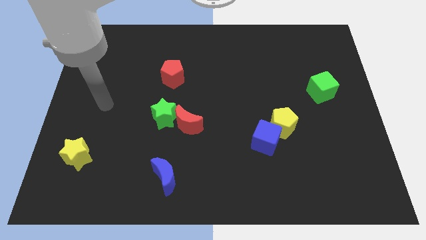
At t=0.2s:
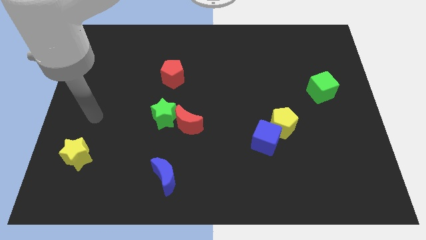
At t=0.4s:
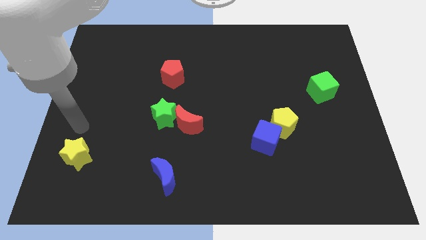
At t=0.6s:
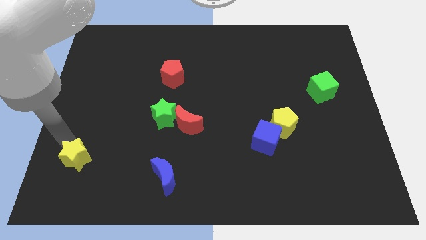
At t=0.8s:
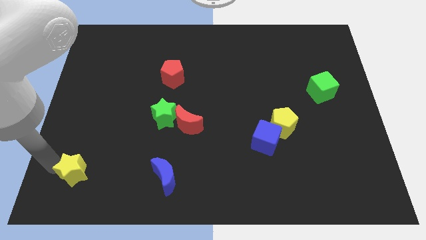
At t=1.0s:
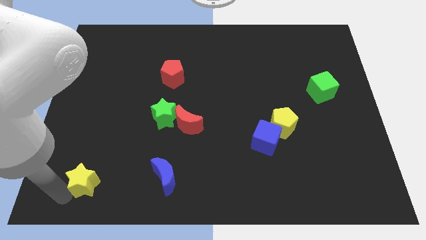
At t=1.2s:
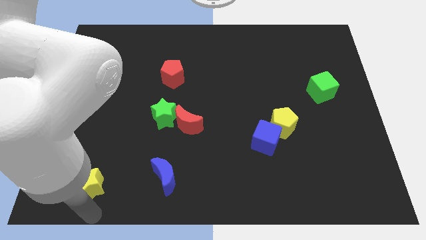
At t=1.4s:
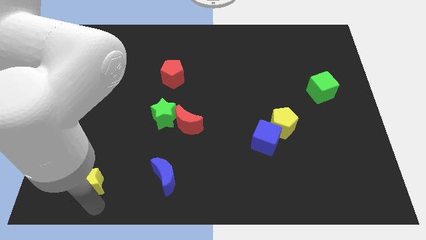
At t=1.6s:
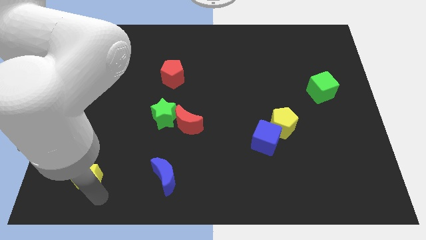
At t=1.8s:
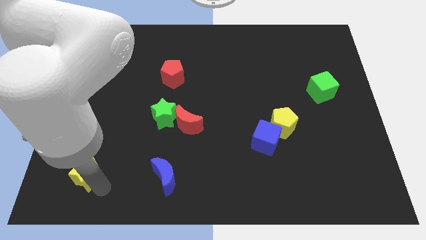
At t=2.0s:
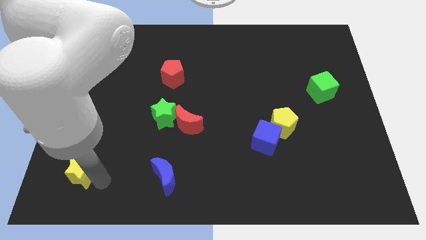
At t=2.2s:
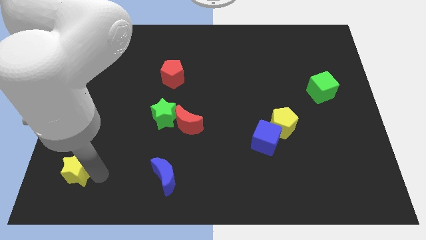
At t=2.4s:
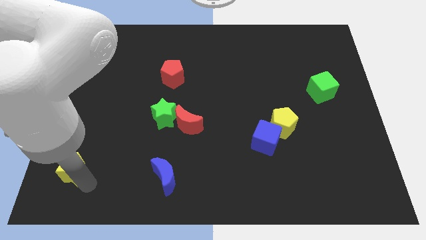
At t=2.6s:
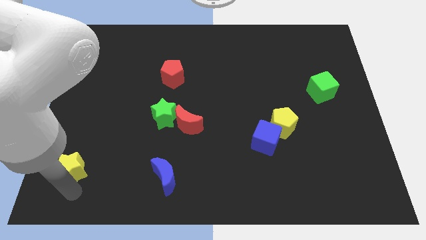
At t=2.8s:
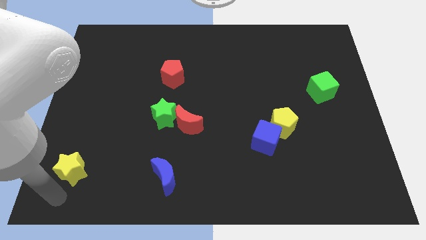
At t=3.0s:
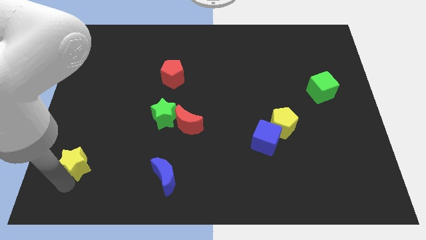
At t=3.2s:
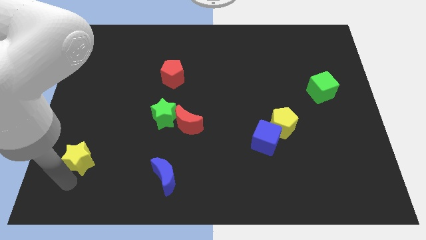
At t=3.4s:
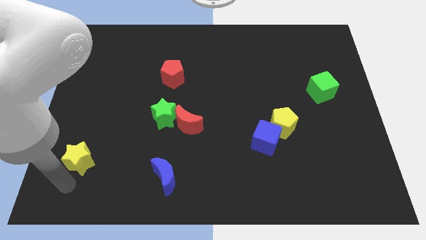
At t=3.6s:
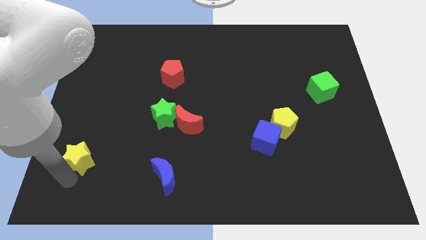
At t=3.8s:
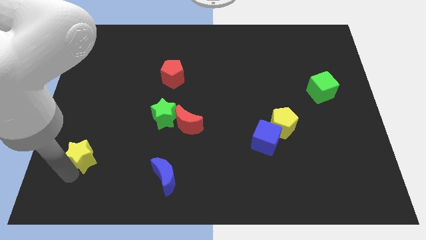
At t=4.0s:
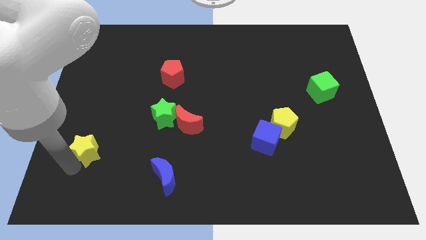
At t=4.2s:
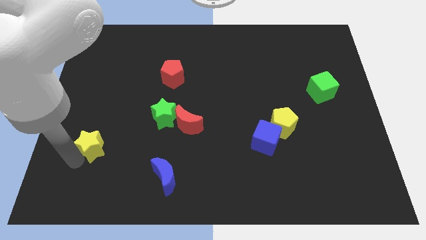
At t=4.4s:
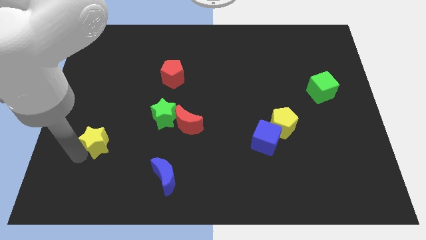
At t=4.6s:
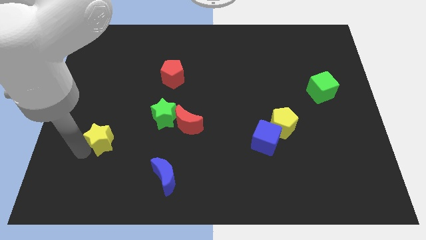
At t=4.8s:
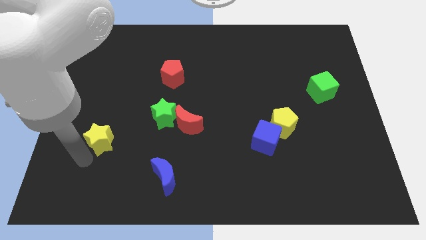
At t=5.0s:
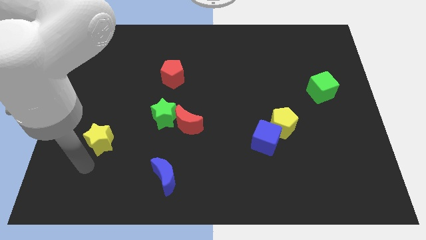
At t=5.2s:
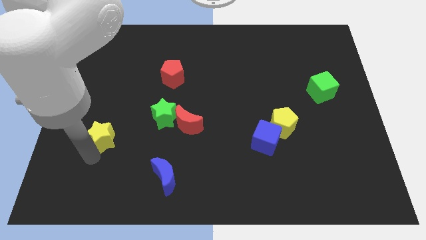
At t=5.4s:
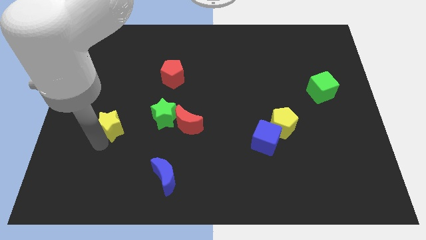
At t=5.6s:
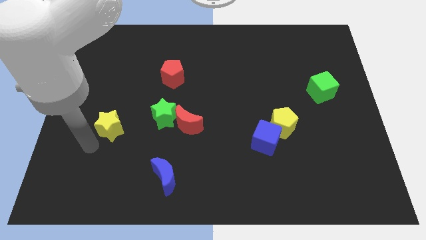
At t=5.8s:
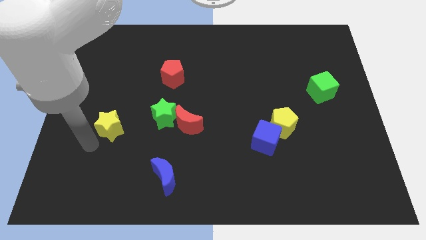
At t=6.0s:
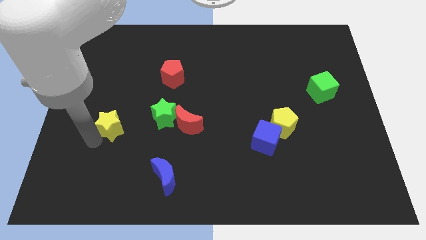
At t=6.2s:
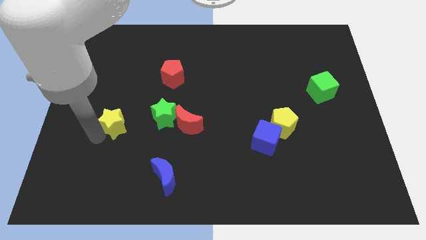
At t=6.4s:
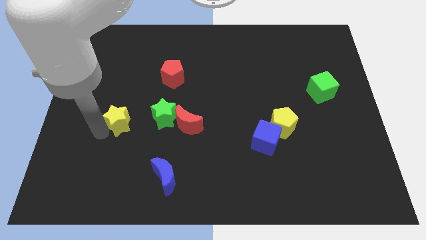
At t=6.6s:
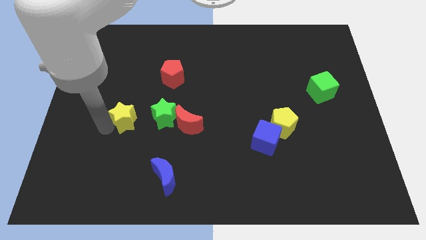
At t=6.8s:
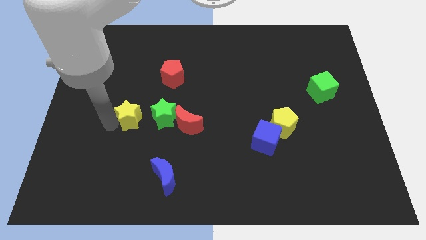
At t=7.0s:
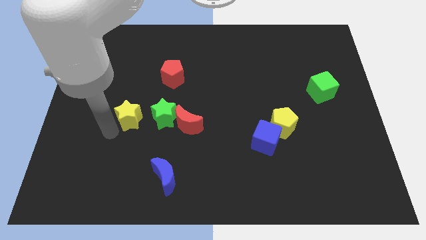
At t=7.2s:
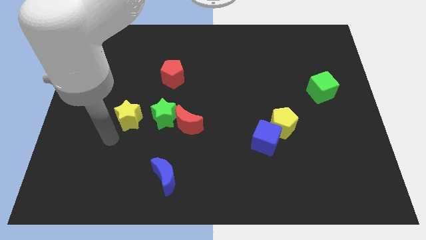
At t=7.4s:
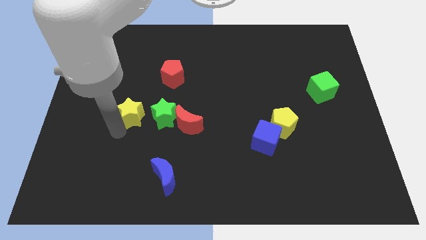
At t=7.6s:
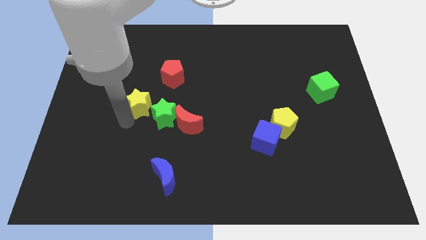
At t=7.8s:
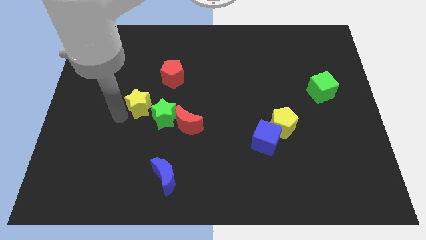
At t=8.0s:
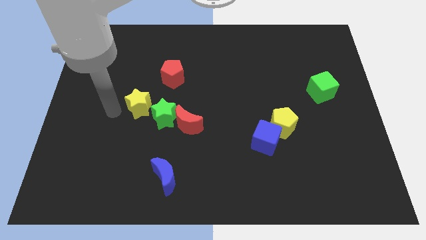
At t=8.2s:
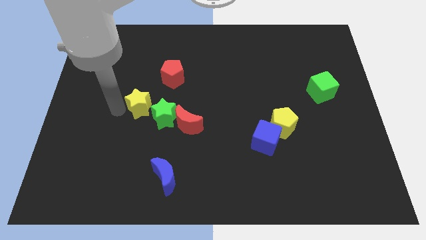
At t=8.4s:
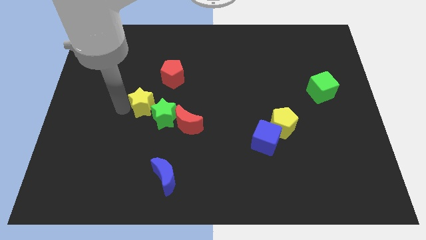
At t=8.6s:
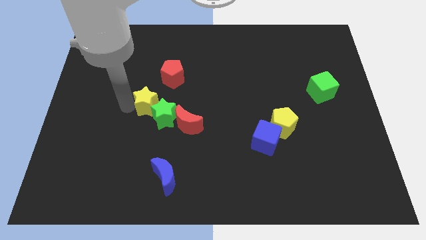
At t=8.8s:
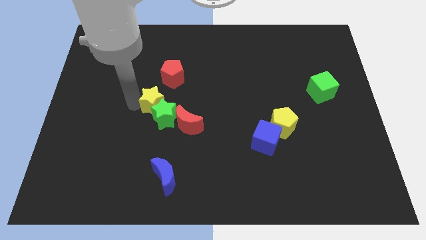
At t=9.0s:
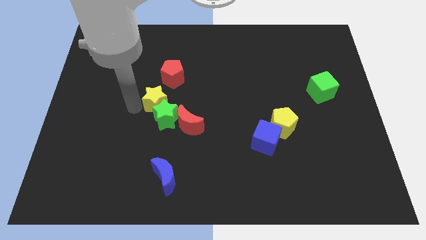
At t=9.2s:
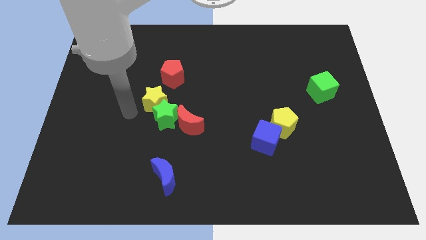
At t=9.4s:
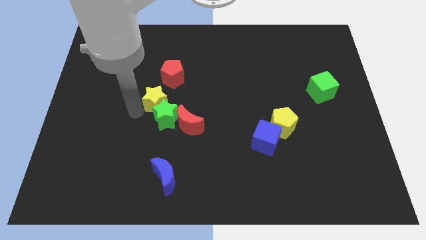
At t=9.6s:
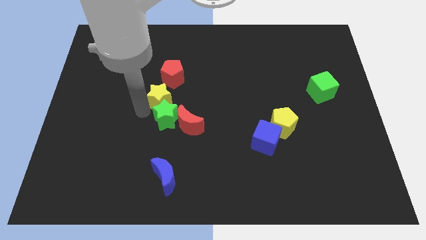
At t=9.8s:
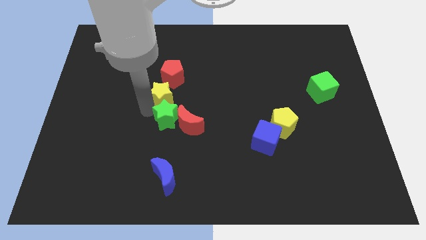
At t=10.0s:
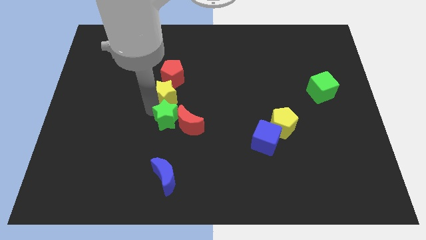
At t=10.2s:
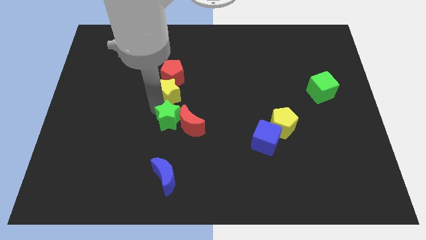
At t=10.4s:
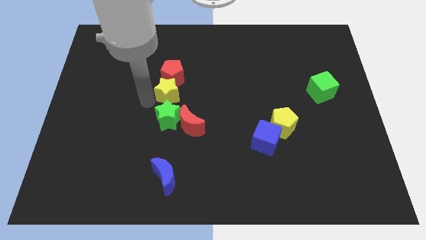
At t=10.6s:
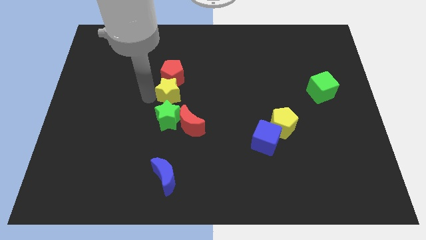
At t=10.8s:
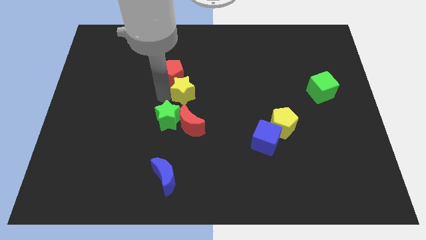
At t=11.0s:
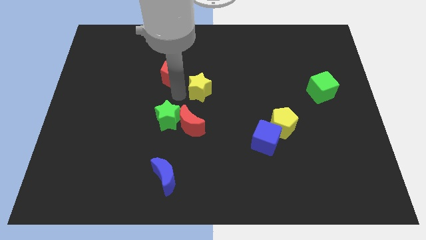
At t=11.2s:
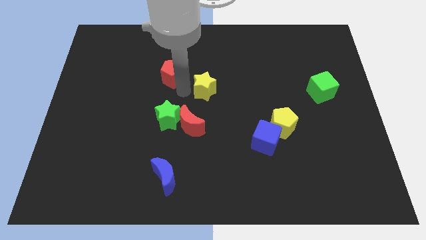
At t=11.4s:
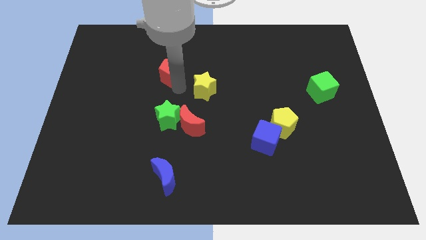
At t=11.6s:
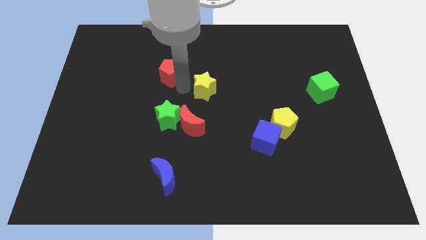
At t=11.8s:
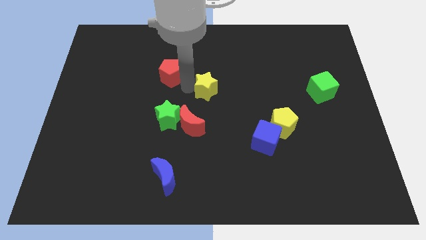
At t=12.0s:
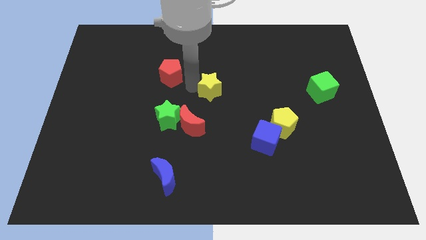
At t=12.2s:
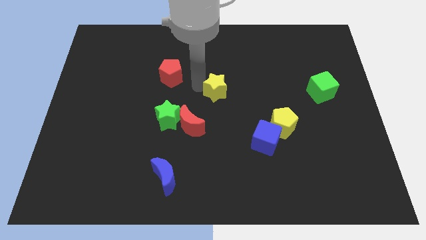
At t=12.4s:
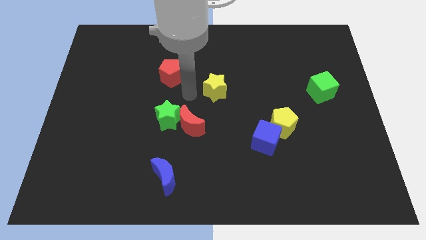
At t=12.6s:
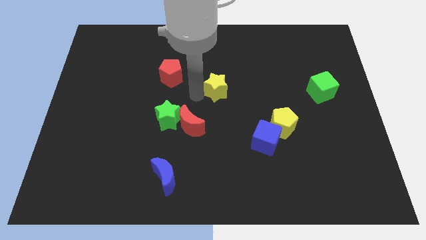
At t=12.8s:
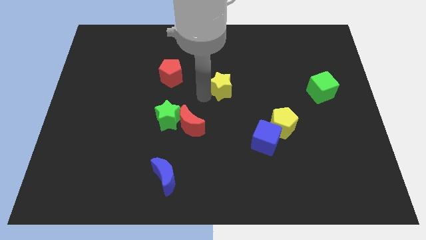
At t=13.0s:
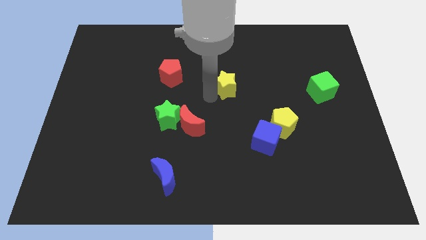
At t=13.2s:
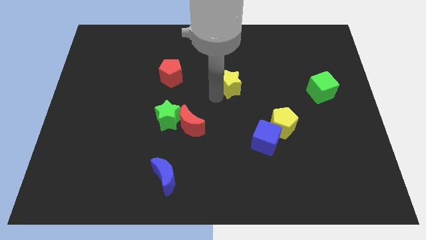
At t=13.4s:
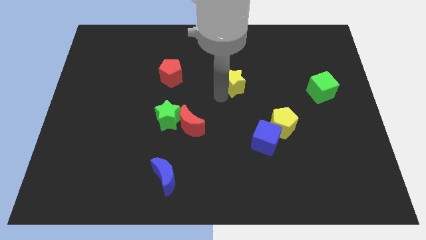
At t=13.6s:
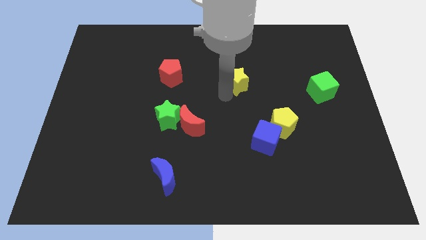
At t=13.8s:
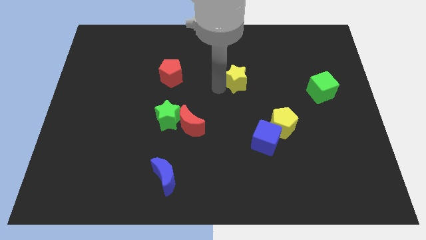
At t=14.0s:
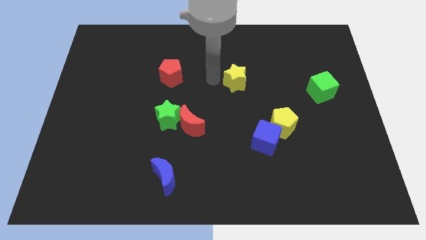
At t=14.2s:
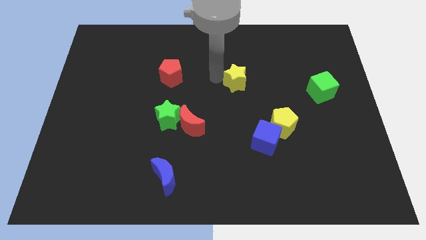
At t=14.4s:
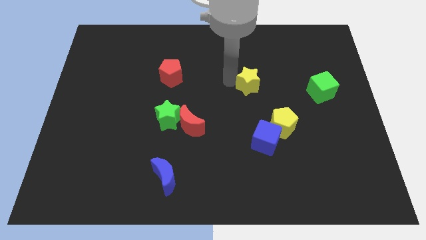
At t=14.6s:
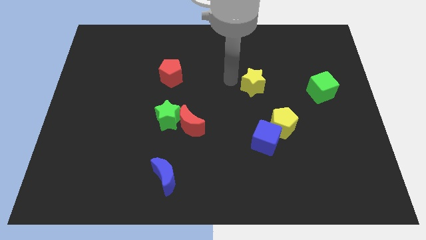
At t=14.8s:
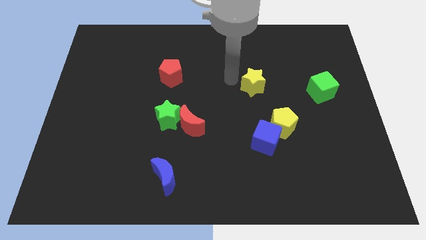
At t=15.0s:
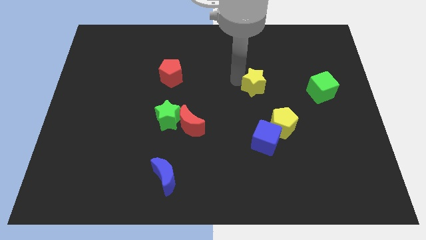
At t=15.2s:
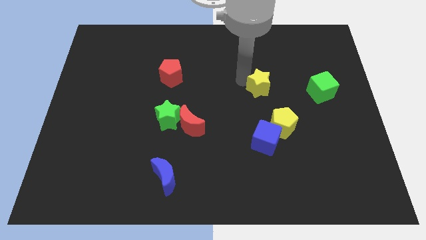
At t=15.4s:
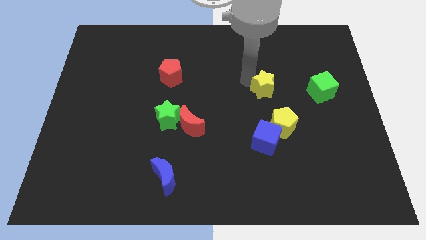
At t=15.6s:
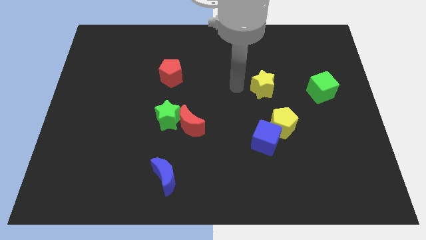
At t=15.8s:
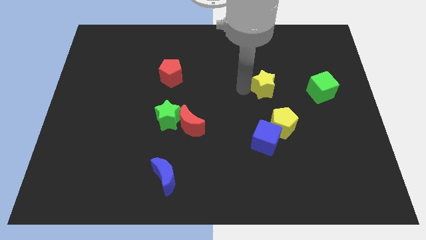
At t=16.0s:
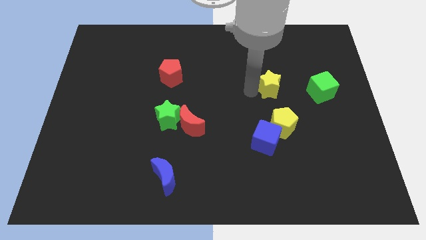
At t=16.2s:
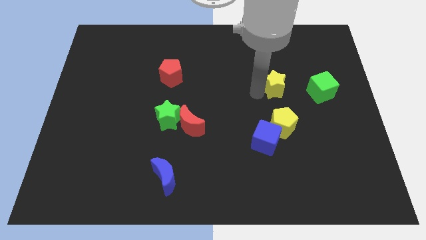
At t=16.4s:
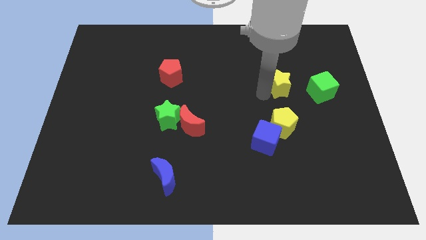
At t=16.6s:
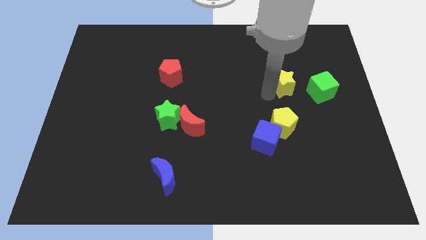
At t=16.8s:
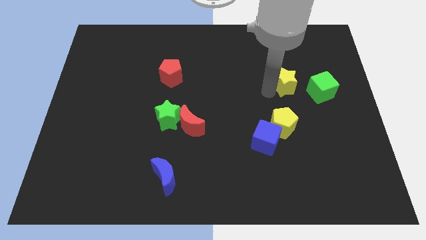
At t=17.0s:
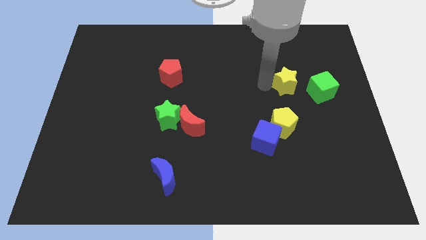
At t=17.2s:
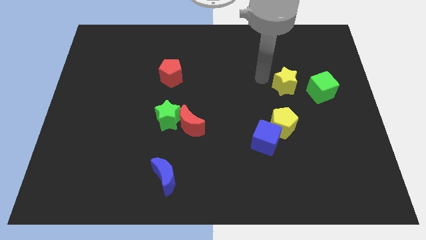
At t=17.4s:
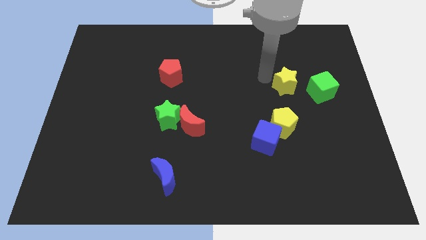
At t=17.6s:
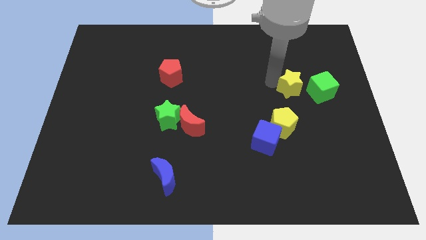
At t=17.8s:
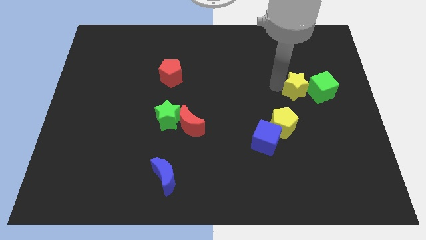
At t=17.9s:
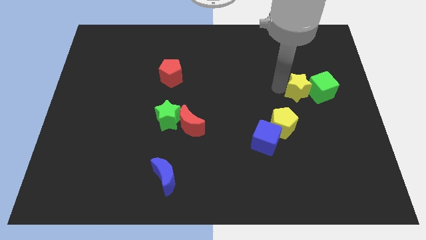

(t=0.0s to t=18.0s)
move the yellow star next to the green cube
